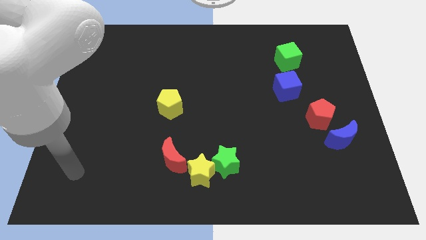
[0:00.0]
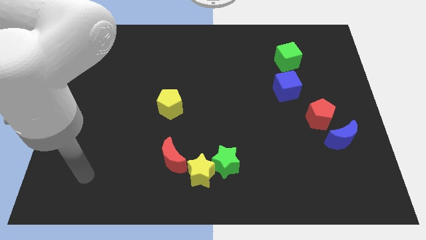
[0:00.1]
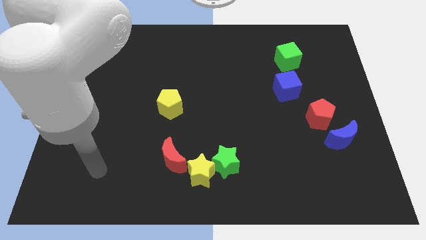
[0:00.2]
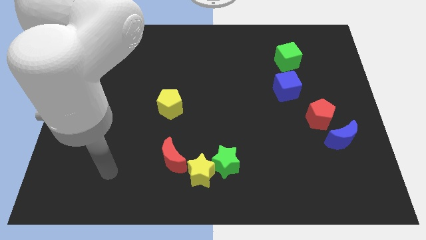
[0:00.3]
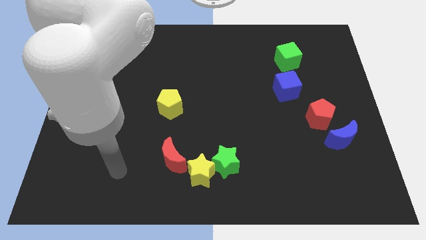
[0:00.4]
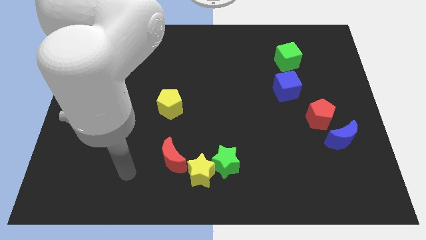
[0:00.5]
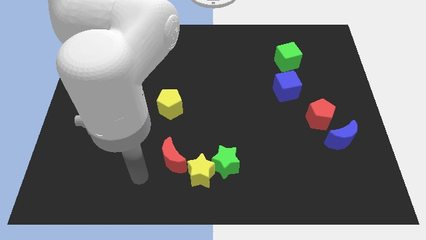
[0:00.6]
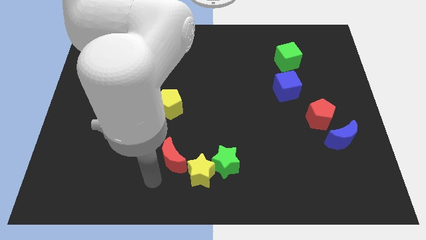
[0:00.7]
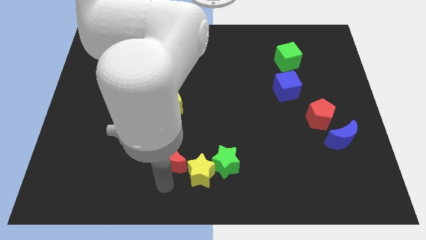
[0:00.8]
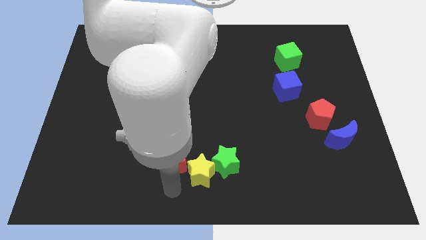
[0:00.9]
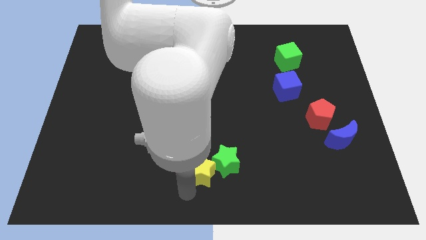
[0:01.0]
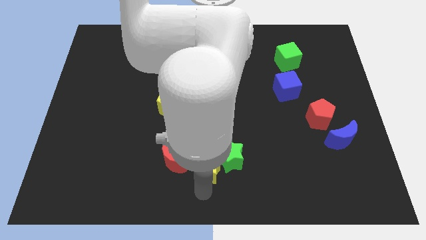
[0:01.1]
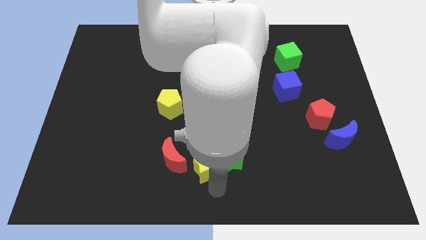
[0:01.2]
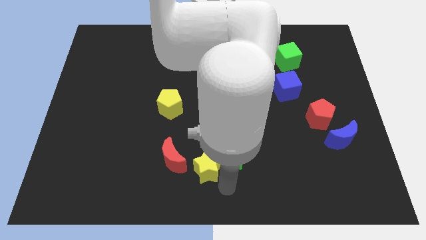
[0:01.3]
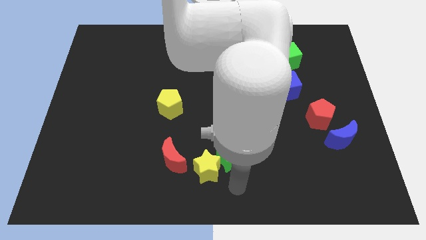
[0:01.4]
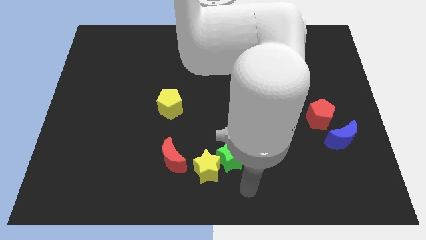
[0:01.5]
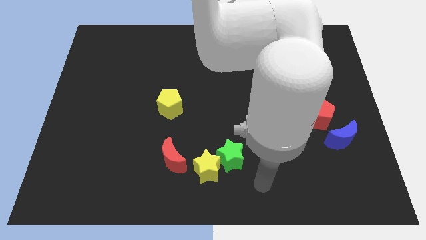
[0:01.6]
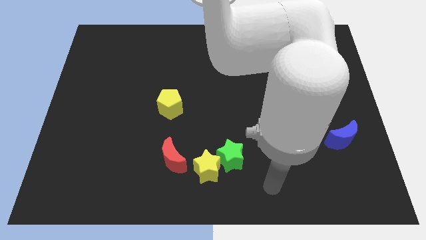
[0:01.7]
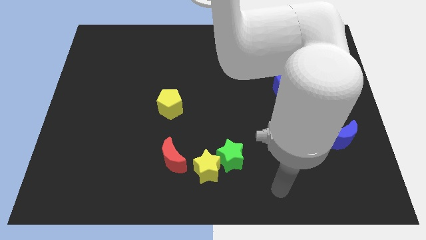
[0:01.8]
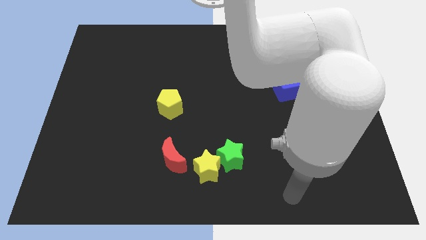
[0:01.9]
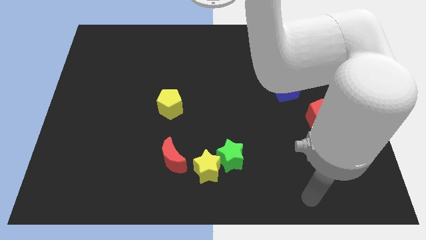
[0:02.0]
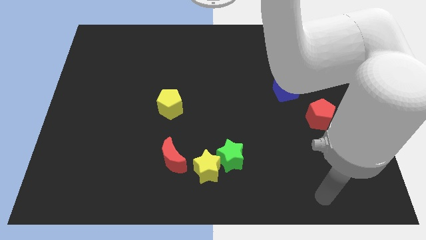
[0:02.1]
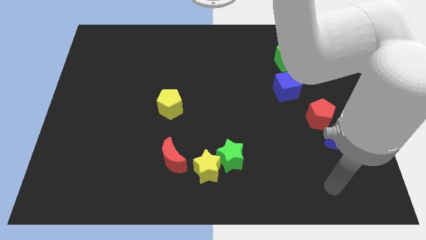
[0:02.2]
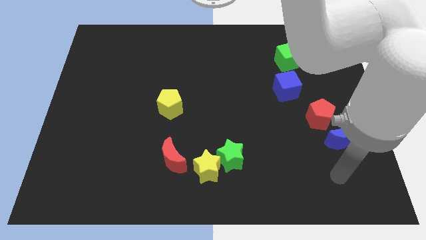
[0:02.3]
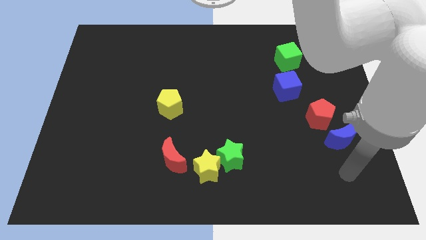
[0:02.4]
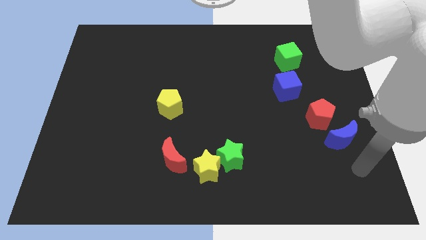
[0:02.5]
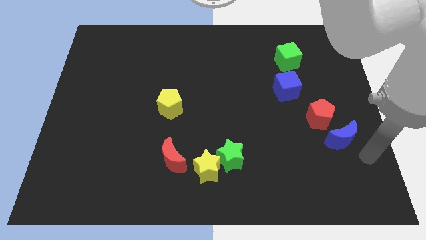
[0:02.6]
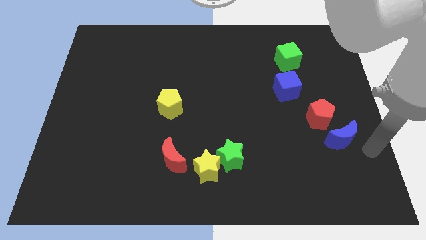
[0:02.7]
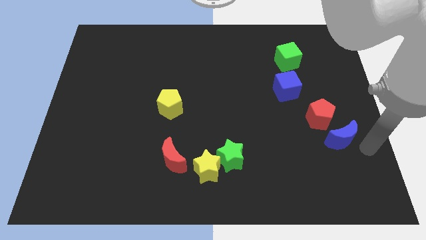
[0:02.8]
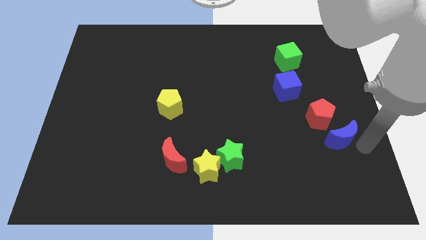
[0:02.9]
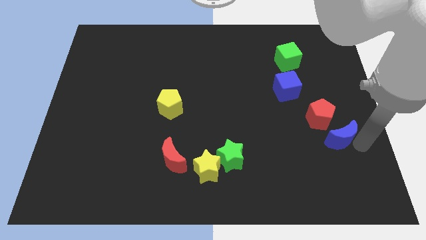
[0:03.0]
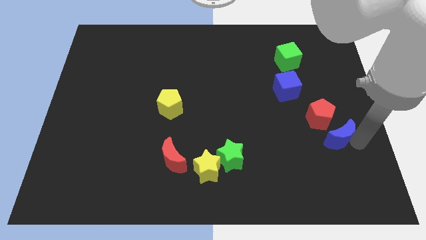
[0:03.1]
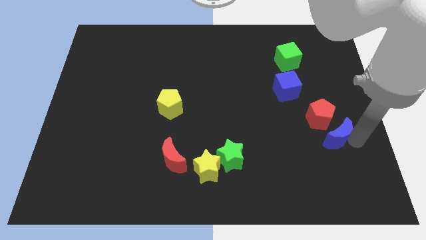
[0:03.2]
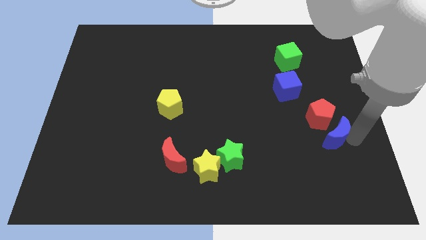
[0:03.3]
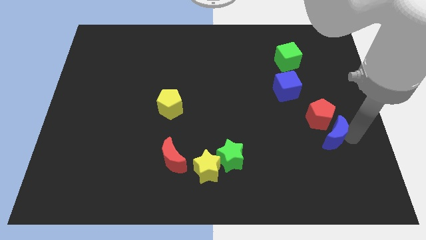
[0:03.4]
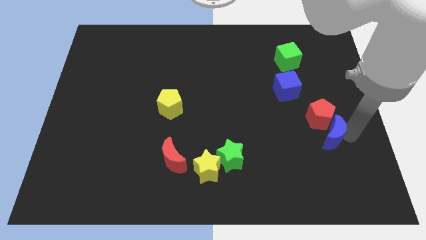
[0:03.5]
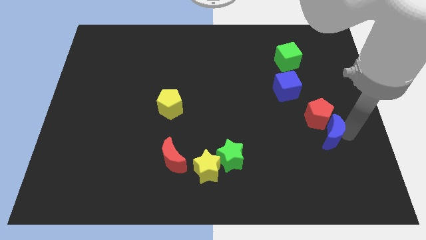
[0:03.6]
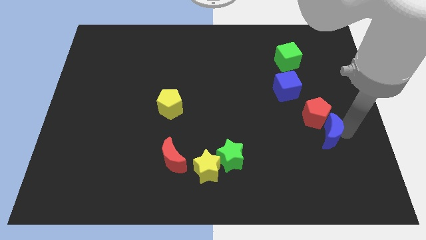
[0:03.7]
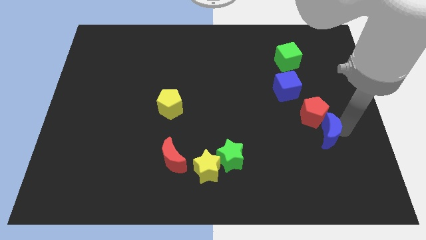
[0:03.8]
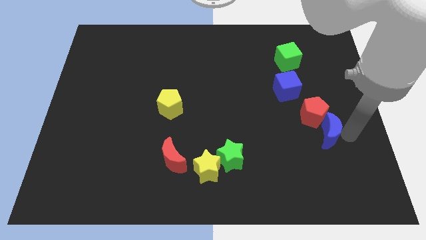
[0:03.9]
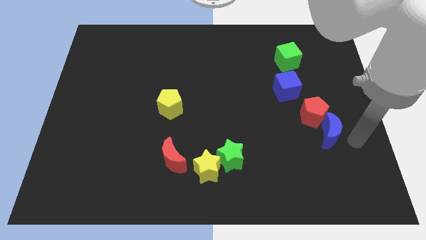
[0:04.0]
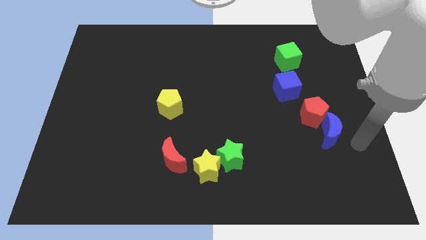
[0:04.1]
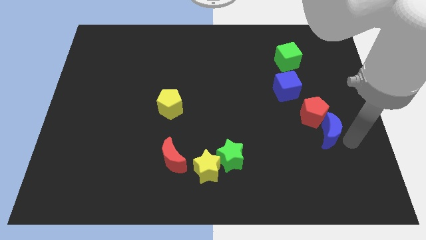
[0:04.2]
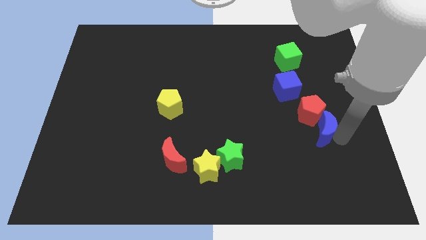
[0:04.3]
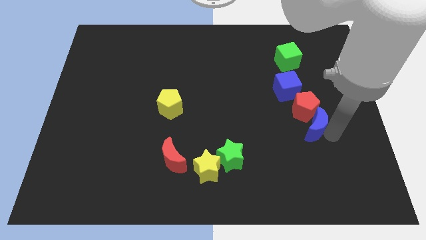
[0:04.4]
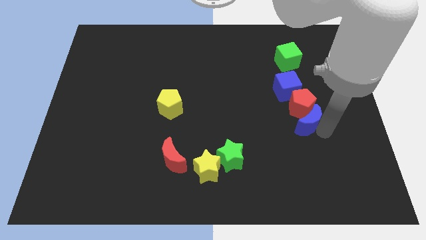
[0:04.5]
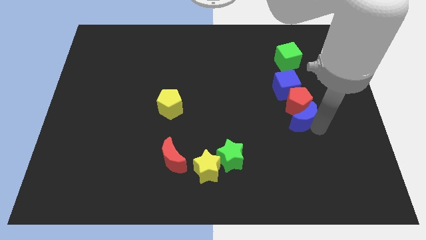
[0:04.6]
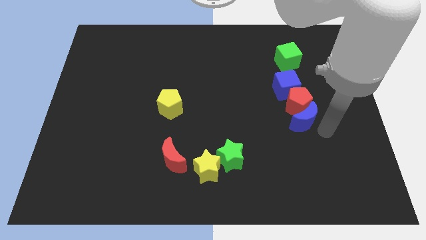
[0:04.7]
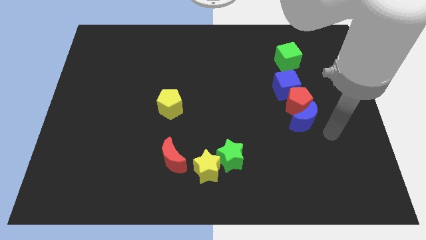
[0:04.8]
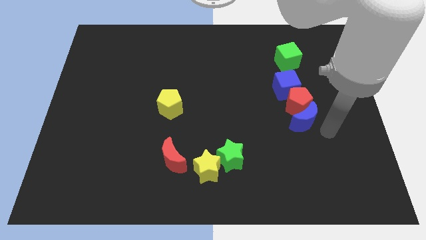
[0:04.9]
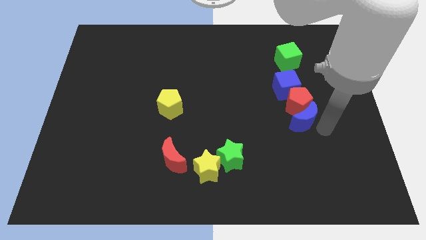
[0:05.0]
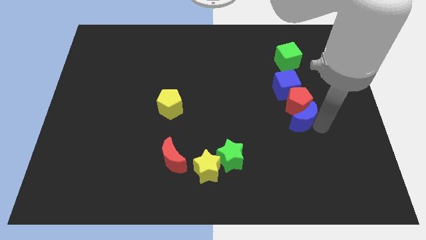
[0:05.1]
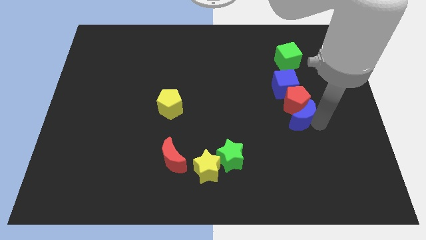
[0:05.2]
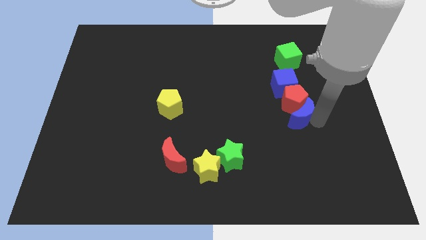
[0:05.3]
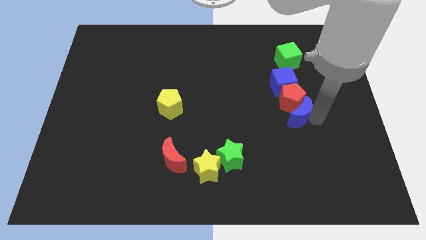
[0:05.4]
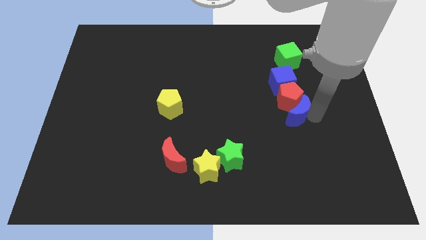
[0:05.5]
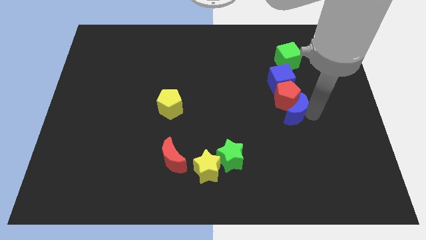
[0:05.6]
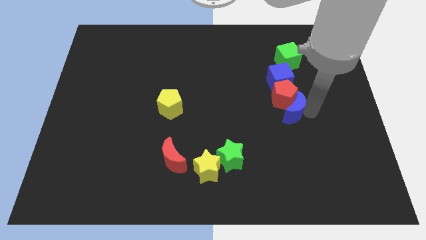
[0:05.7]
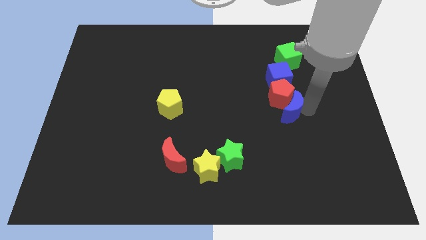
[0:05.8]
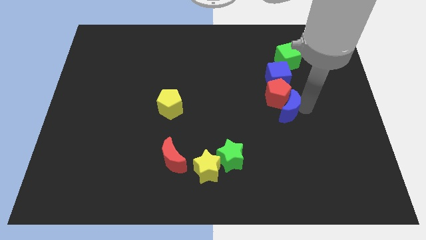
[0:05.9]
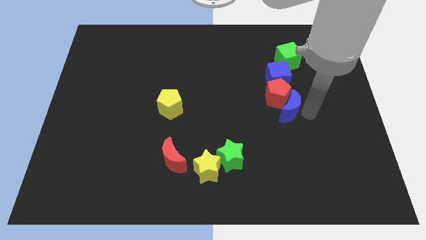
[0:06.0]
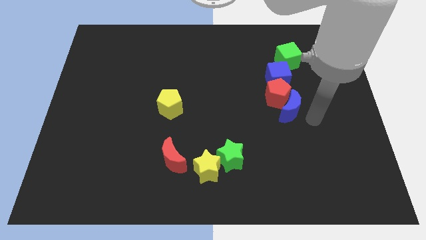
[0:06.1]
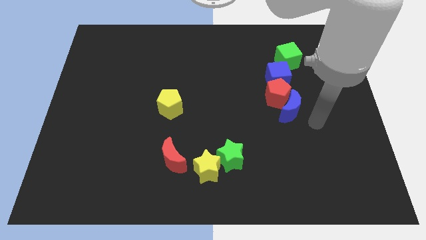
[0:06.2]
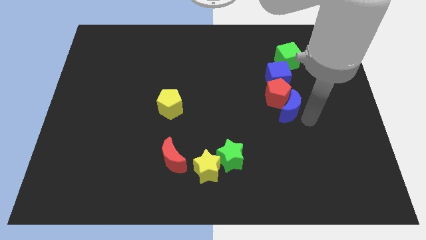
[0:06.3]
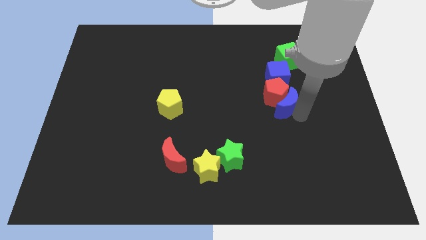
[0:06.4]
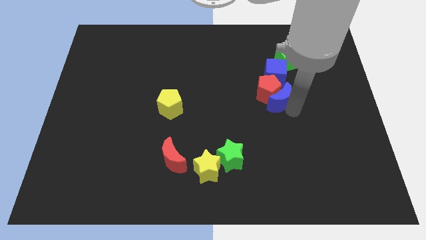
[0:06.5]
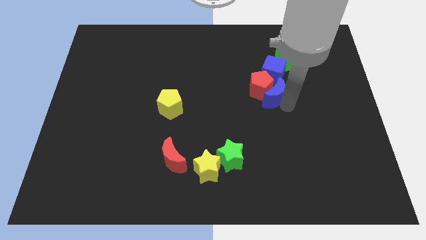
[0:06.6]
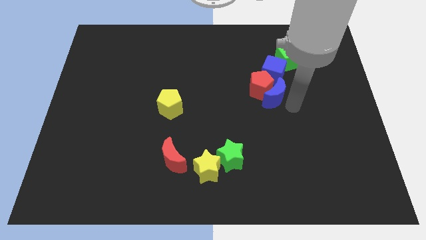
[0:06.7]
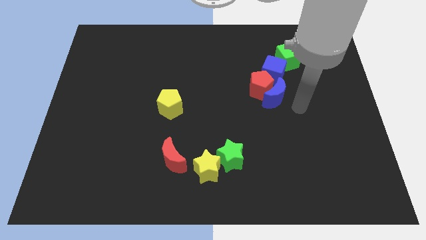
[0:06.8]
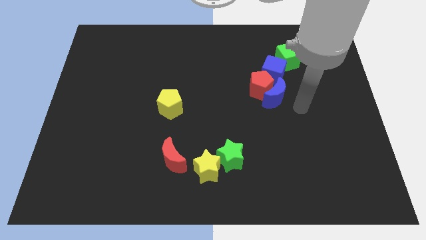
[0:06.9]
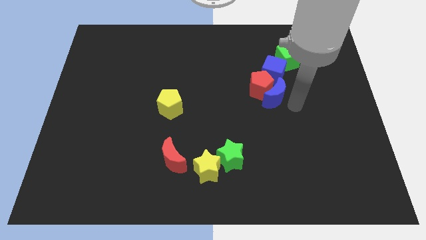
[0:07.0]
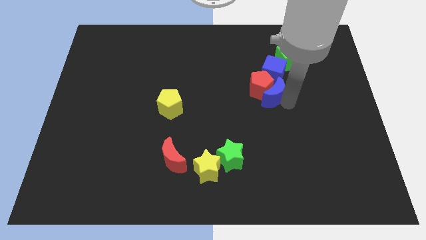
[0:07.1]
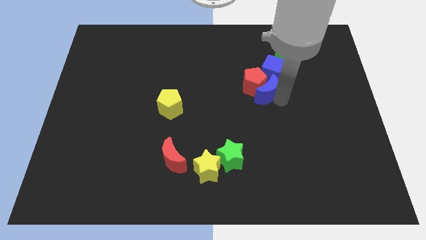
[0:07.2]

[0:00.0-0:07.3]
move the blue moon to the bottom left of the blue cube
